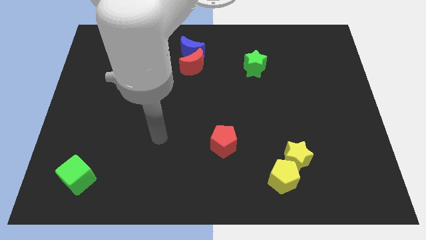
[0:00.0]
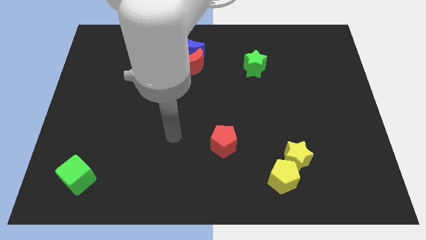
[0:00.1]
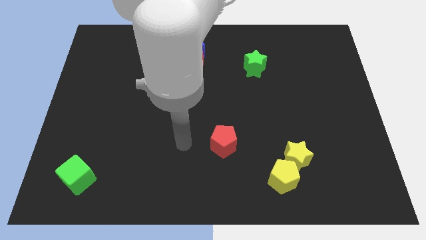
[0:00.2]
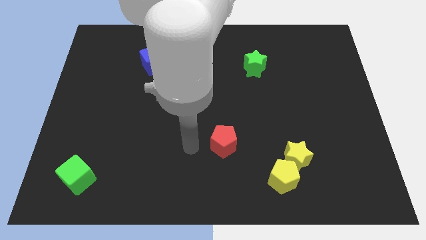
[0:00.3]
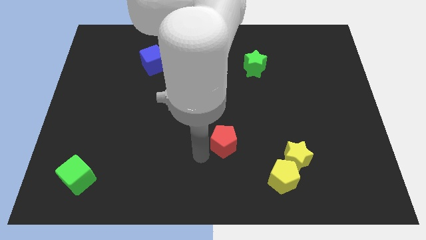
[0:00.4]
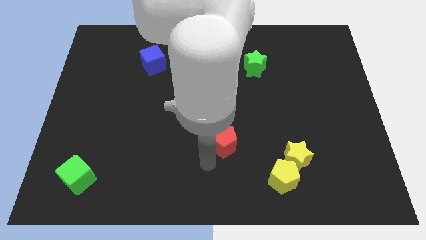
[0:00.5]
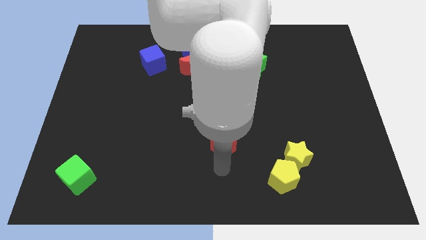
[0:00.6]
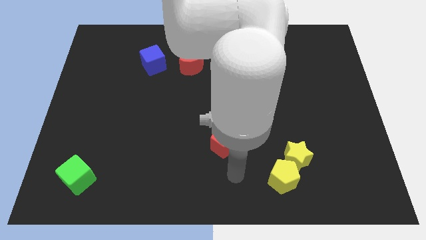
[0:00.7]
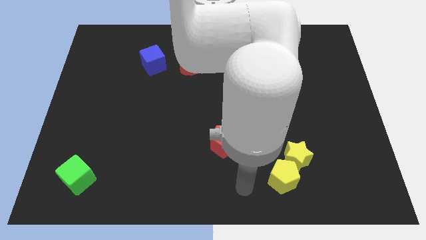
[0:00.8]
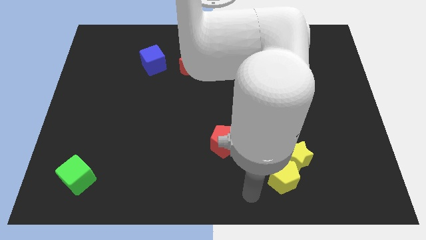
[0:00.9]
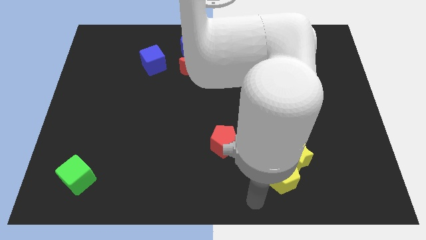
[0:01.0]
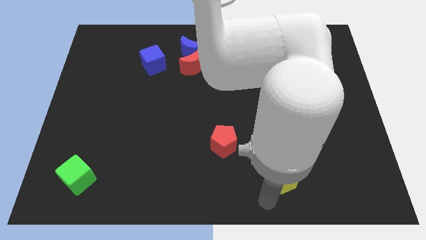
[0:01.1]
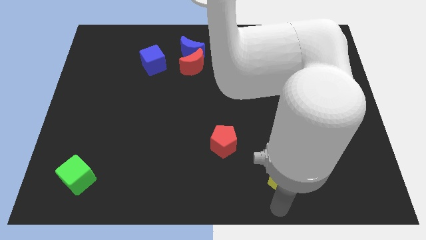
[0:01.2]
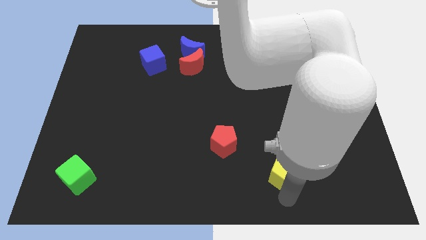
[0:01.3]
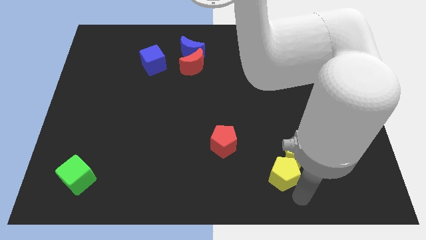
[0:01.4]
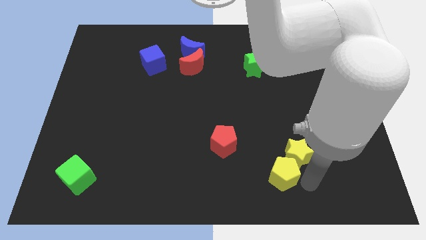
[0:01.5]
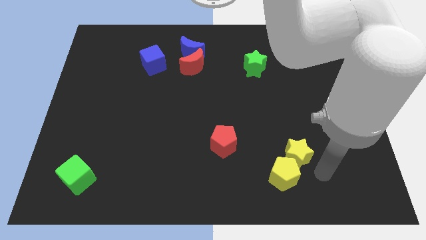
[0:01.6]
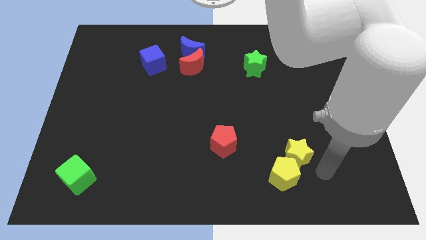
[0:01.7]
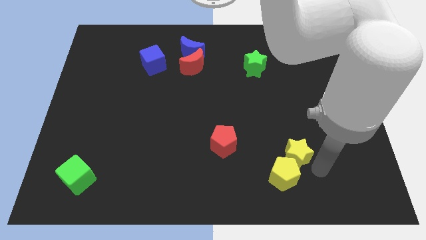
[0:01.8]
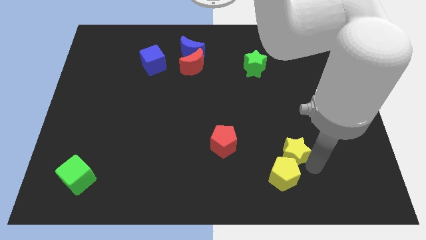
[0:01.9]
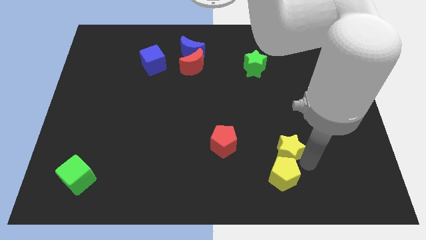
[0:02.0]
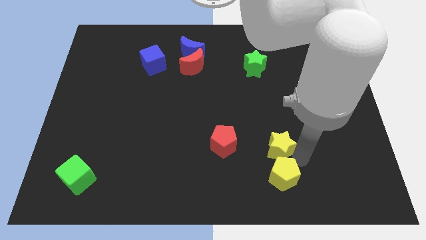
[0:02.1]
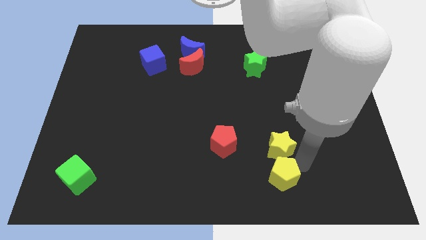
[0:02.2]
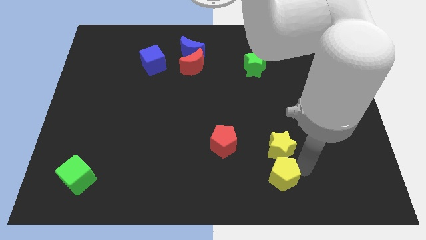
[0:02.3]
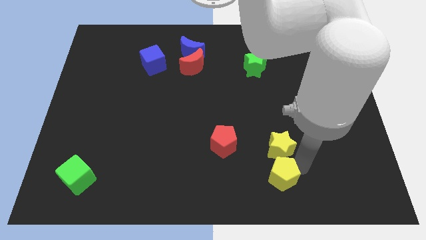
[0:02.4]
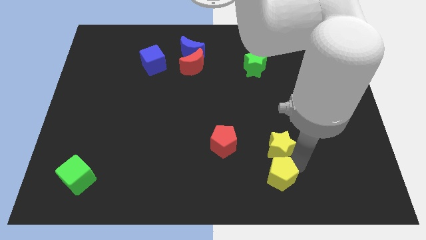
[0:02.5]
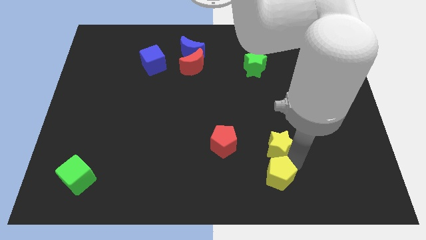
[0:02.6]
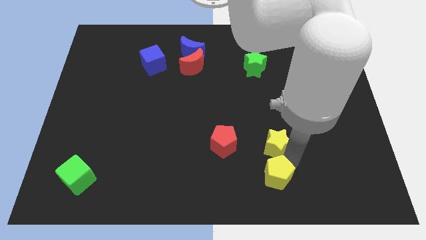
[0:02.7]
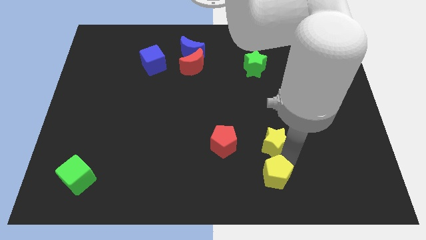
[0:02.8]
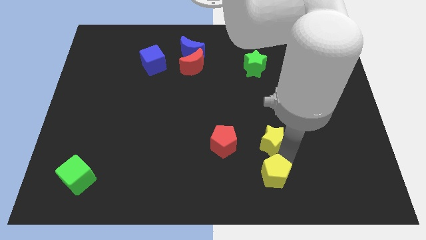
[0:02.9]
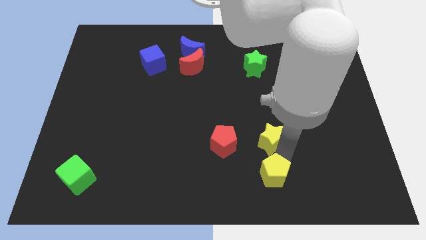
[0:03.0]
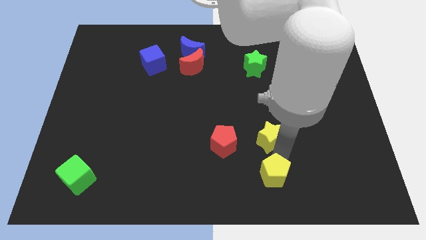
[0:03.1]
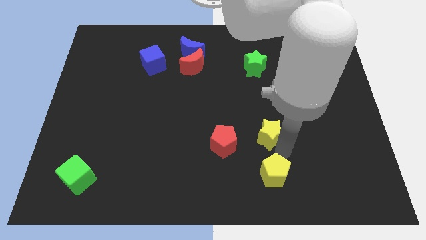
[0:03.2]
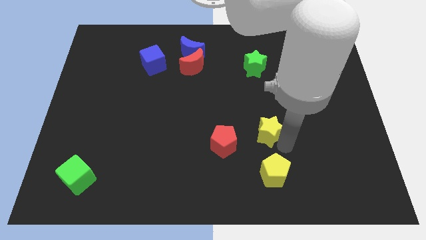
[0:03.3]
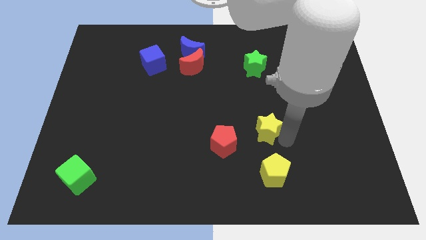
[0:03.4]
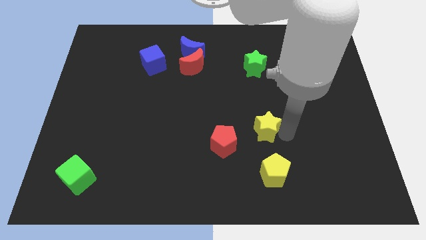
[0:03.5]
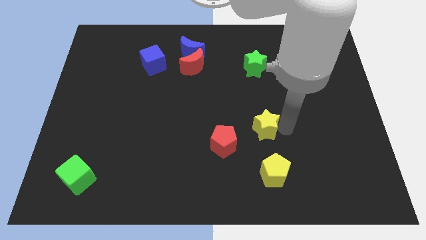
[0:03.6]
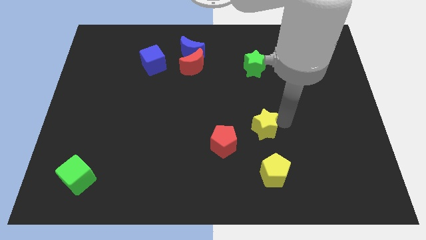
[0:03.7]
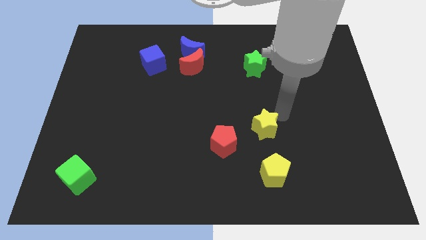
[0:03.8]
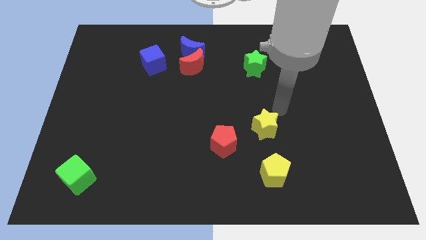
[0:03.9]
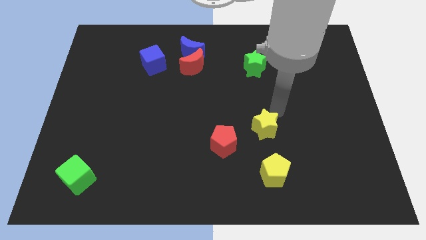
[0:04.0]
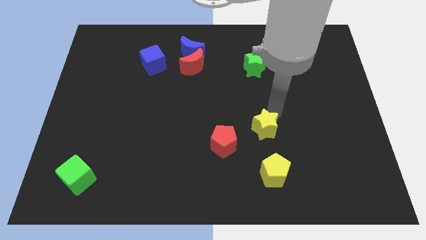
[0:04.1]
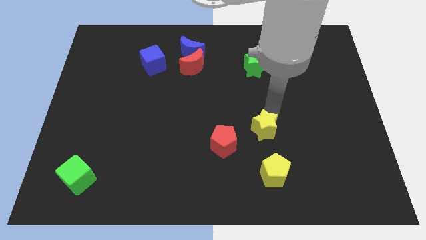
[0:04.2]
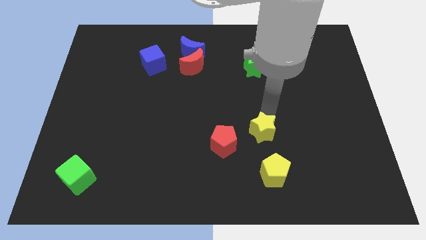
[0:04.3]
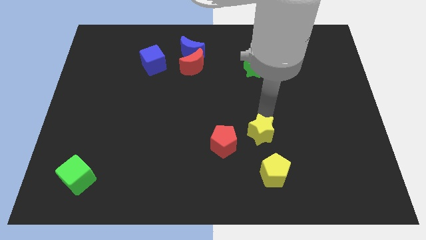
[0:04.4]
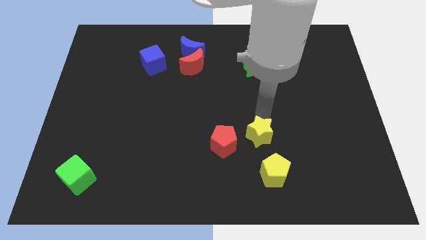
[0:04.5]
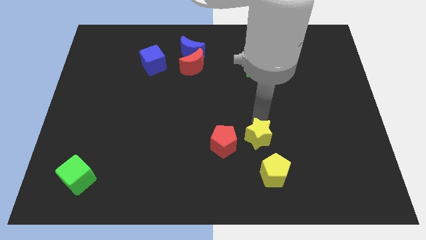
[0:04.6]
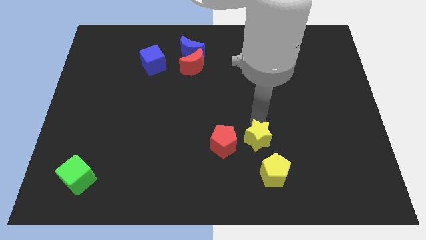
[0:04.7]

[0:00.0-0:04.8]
slightly move the yellow star left

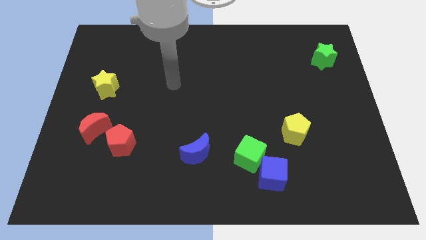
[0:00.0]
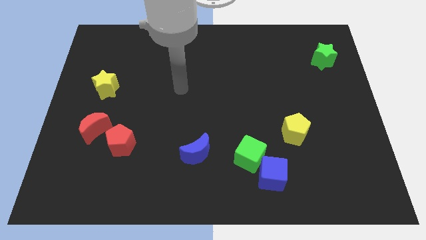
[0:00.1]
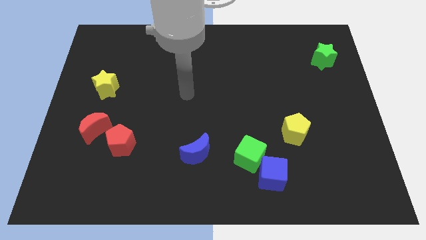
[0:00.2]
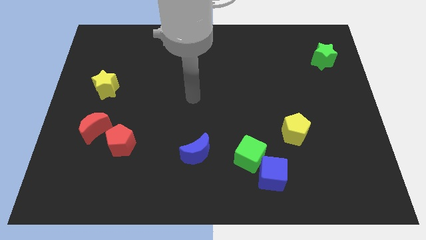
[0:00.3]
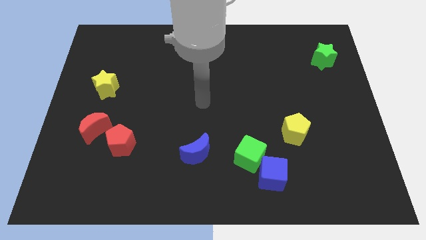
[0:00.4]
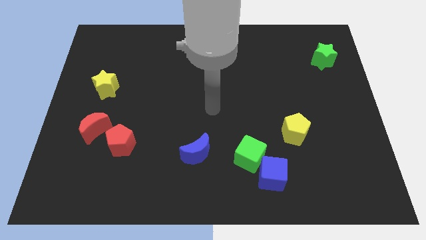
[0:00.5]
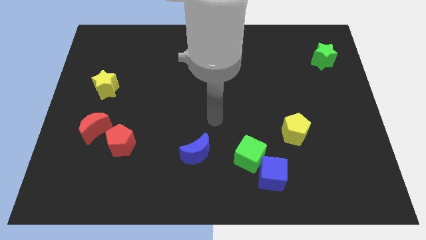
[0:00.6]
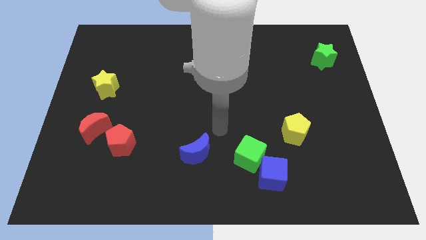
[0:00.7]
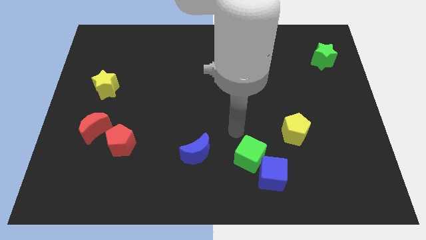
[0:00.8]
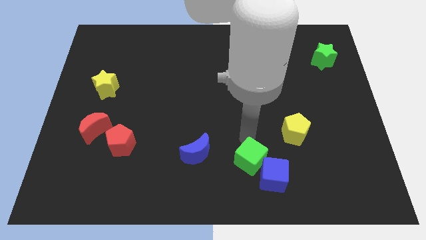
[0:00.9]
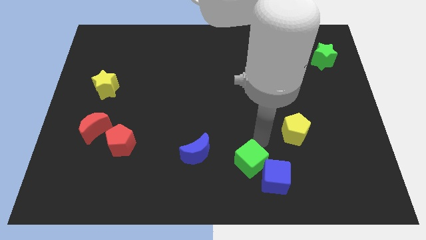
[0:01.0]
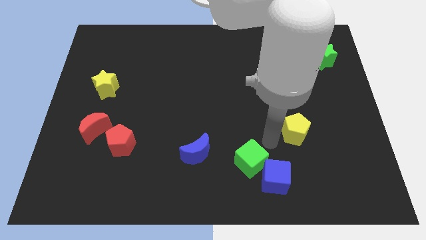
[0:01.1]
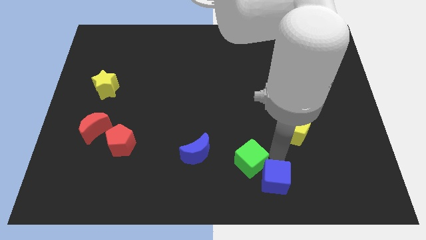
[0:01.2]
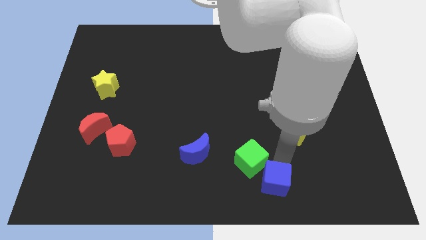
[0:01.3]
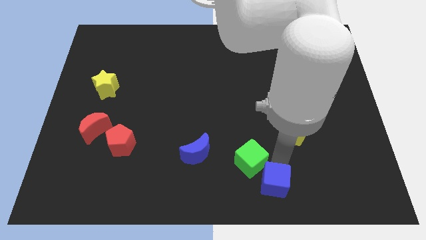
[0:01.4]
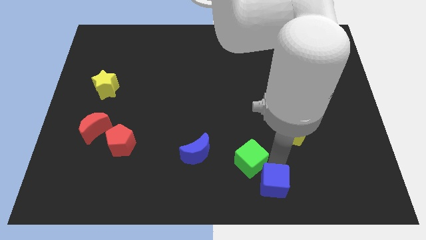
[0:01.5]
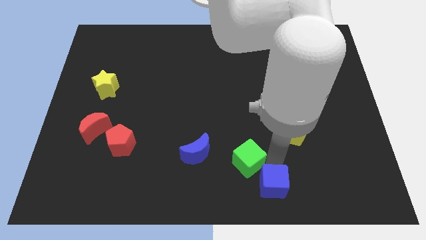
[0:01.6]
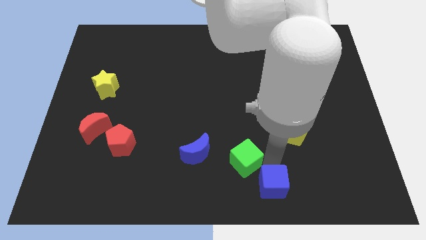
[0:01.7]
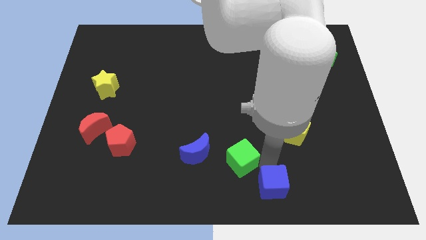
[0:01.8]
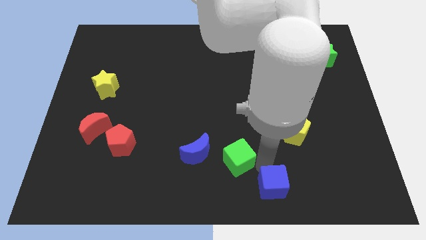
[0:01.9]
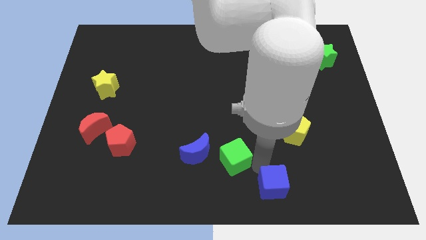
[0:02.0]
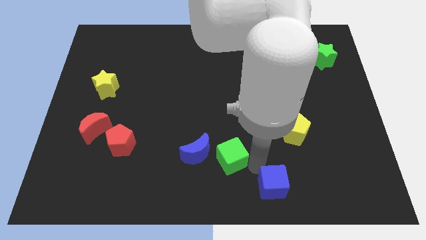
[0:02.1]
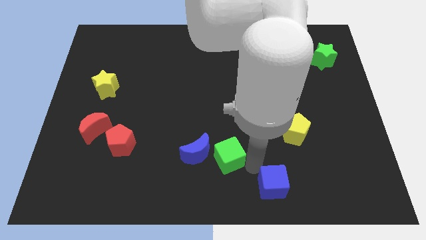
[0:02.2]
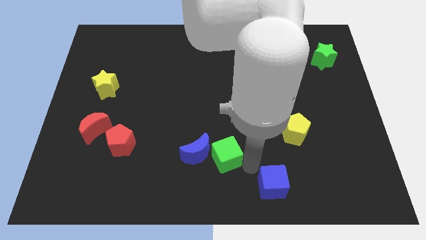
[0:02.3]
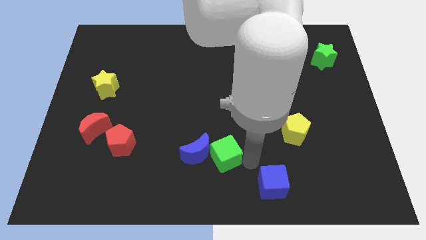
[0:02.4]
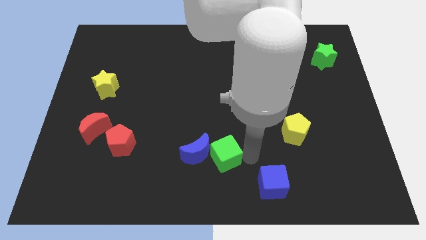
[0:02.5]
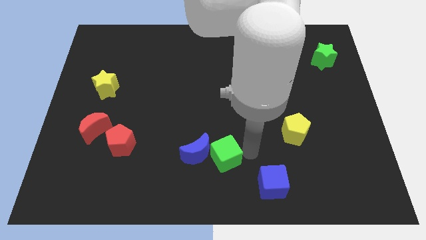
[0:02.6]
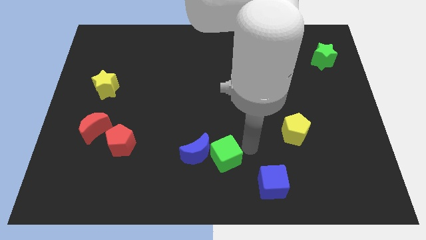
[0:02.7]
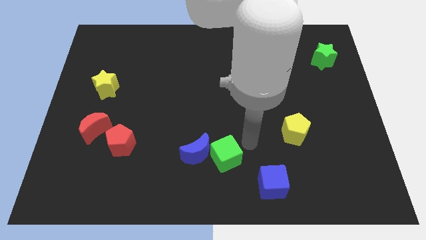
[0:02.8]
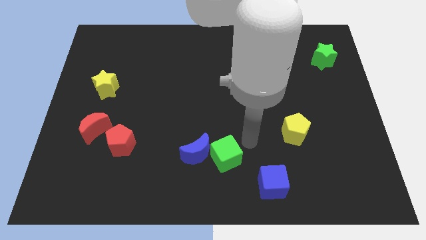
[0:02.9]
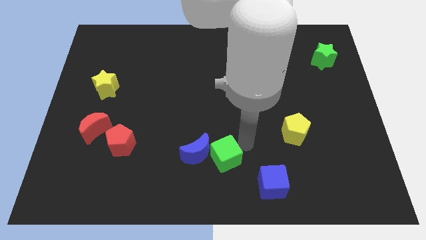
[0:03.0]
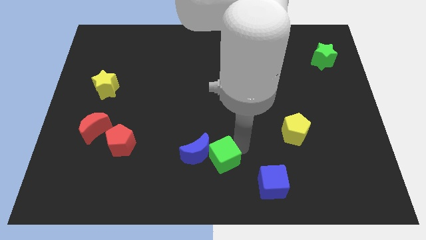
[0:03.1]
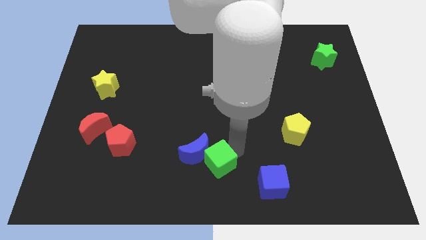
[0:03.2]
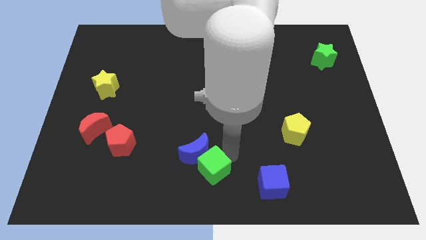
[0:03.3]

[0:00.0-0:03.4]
slide the green cube to the left slightly
